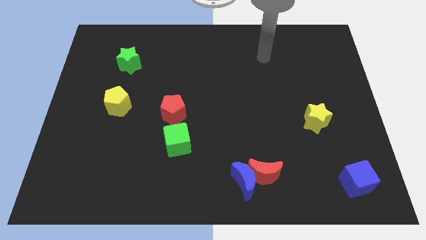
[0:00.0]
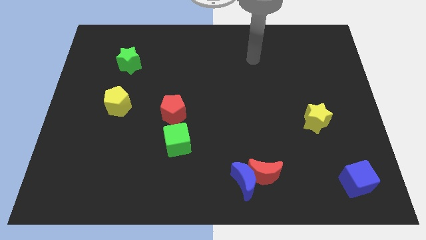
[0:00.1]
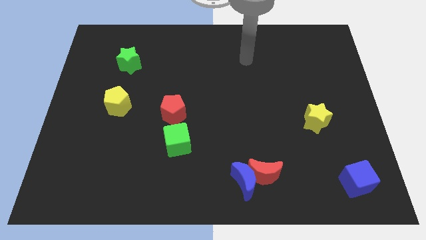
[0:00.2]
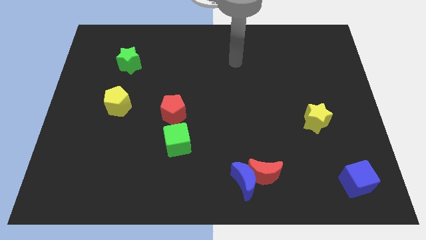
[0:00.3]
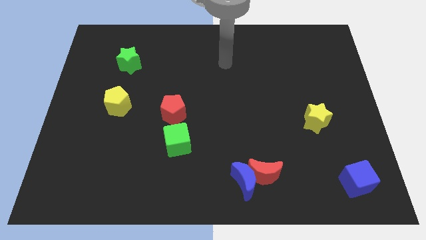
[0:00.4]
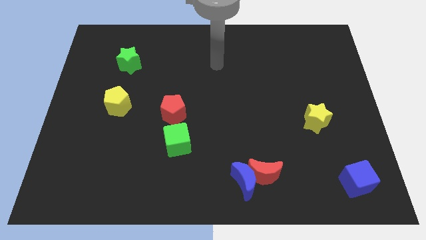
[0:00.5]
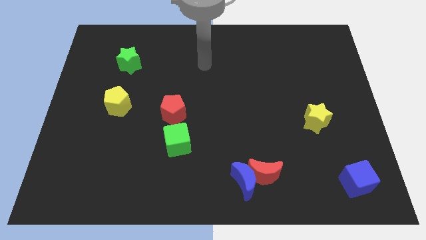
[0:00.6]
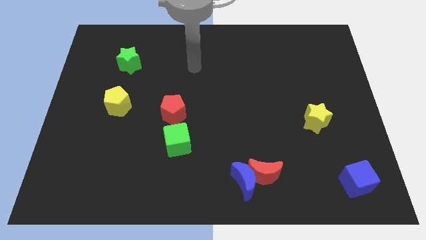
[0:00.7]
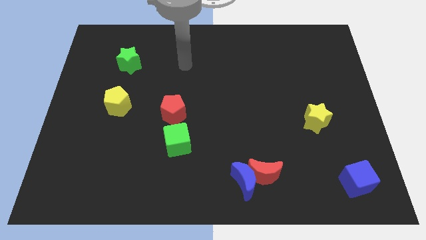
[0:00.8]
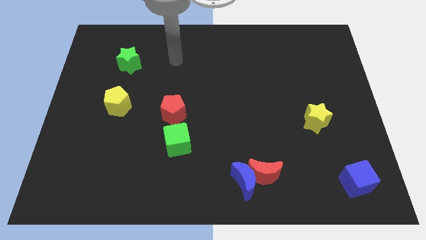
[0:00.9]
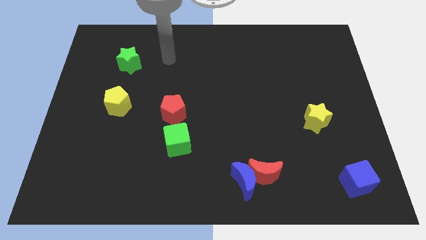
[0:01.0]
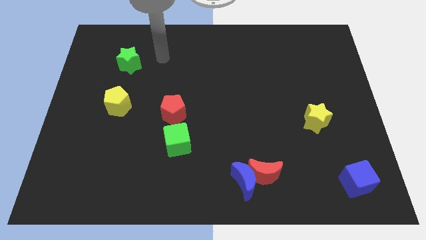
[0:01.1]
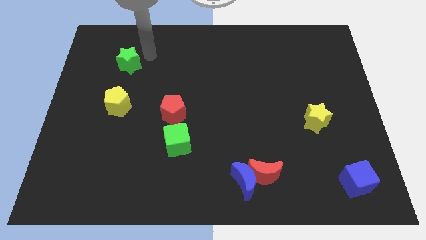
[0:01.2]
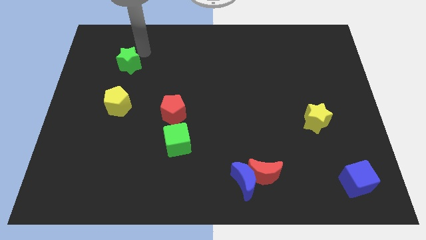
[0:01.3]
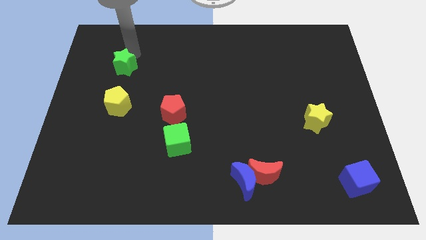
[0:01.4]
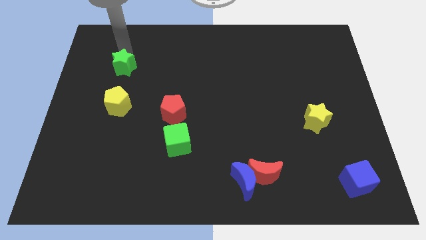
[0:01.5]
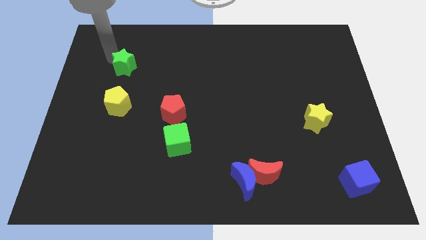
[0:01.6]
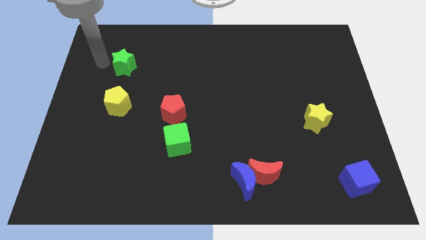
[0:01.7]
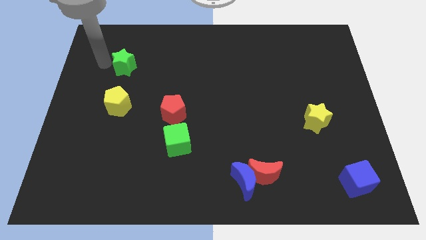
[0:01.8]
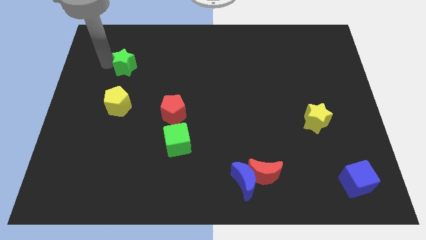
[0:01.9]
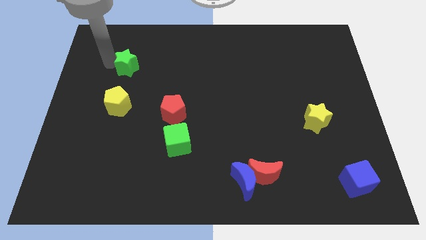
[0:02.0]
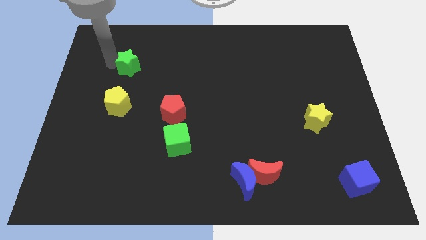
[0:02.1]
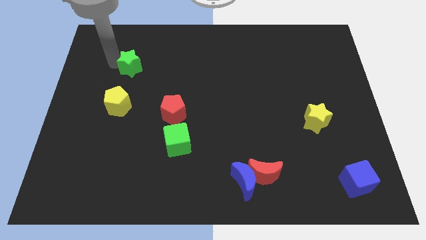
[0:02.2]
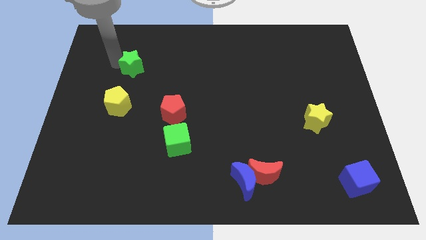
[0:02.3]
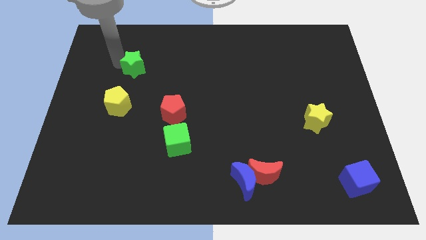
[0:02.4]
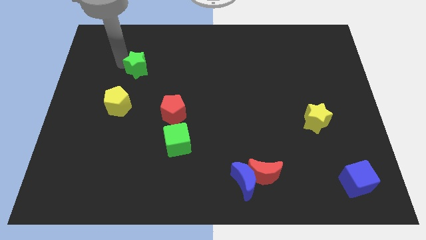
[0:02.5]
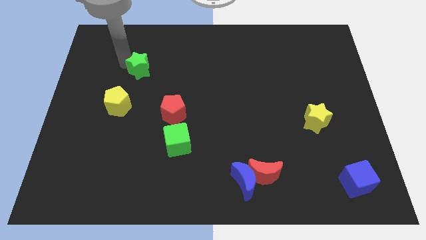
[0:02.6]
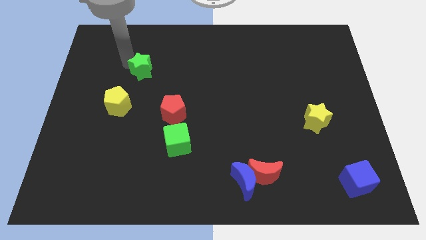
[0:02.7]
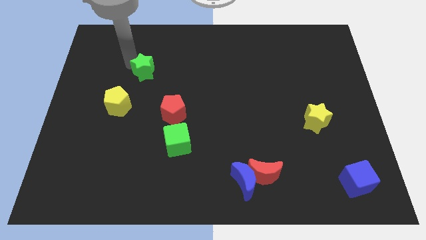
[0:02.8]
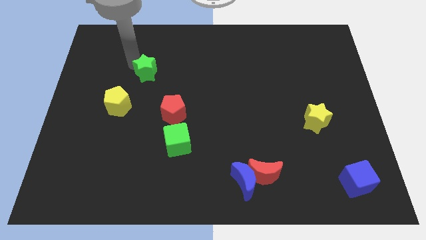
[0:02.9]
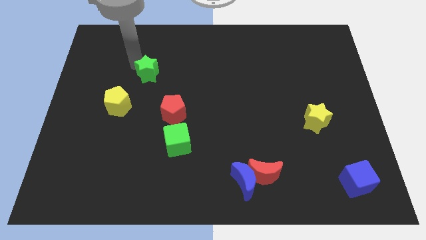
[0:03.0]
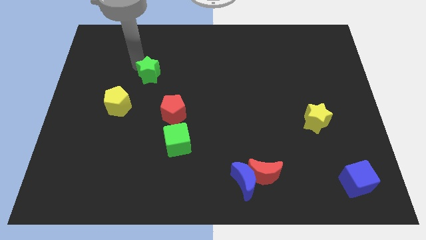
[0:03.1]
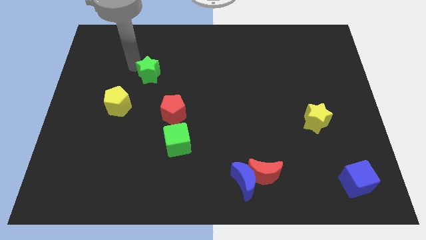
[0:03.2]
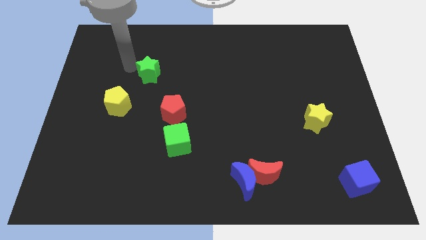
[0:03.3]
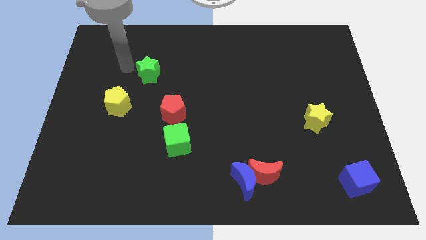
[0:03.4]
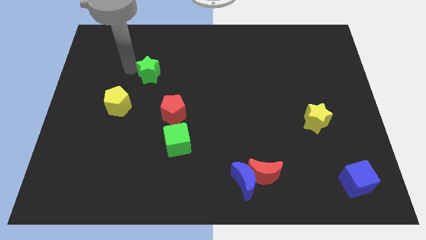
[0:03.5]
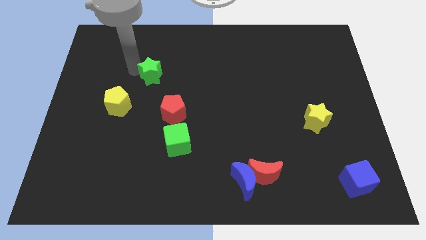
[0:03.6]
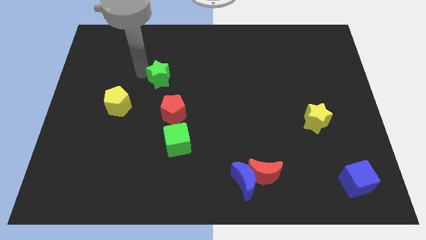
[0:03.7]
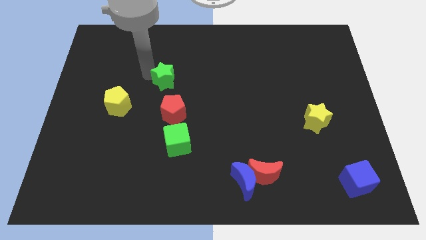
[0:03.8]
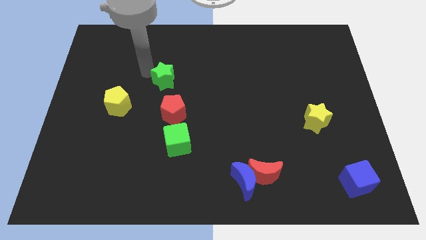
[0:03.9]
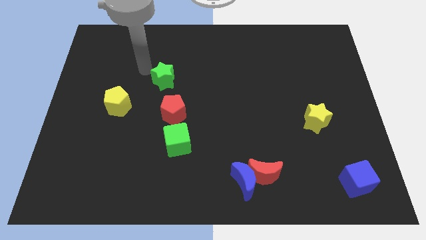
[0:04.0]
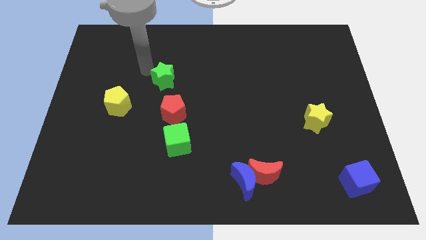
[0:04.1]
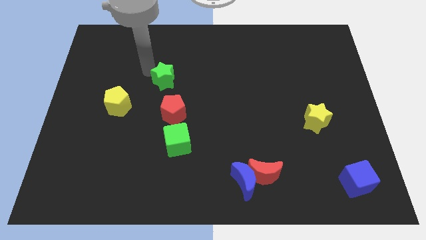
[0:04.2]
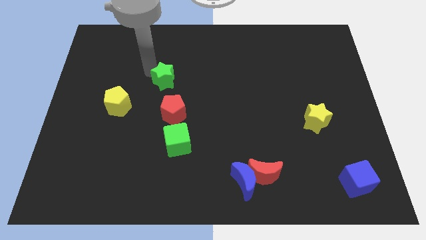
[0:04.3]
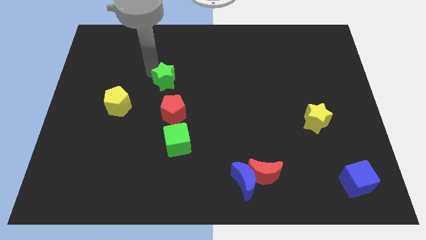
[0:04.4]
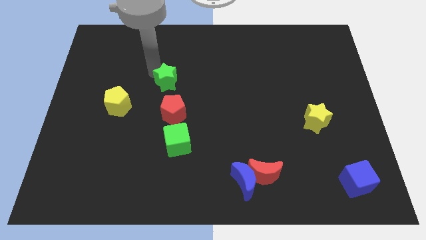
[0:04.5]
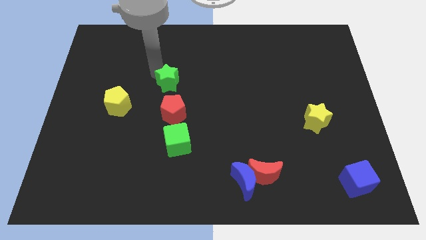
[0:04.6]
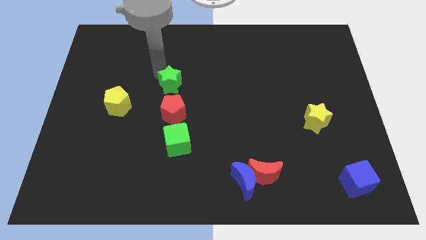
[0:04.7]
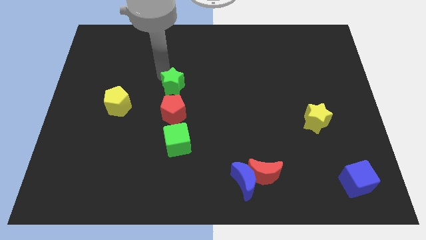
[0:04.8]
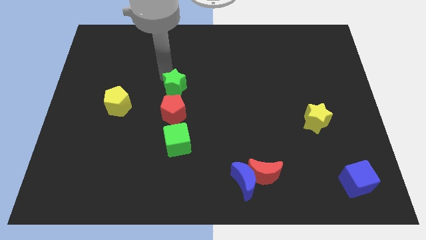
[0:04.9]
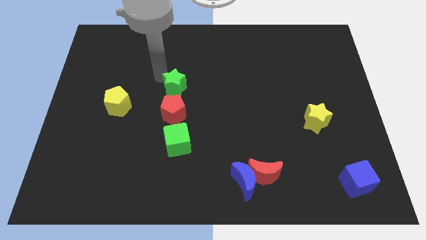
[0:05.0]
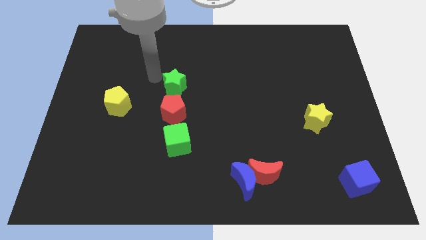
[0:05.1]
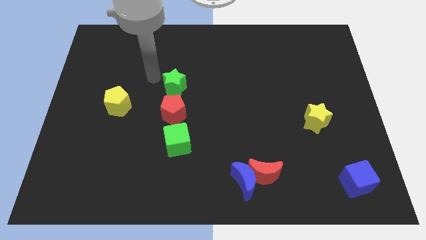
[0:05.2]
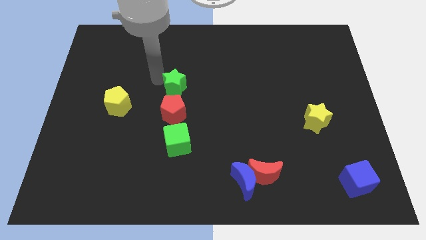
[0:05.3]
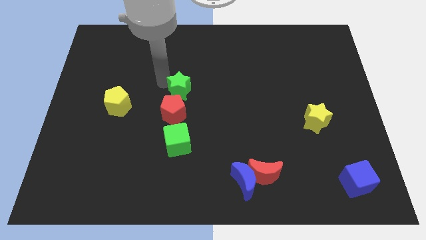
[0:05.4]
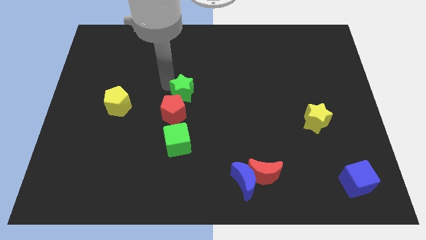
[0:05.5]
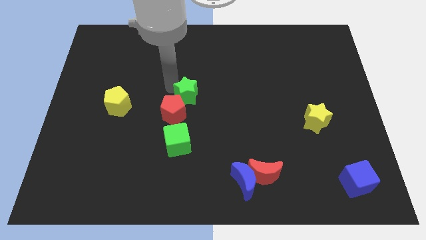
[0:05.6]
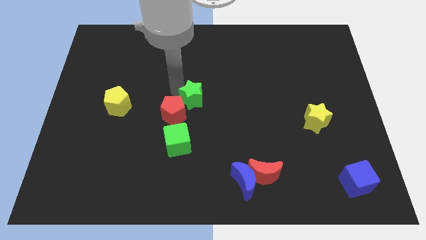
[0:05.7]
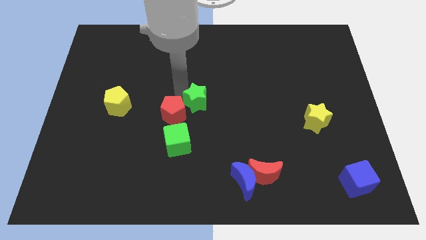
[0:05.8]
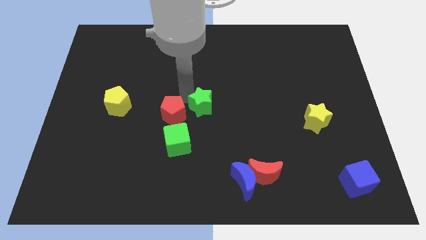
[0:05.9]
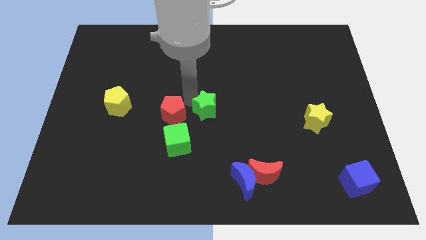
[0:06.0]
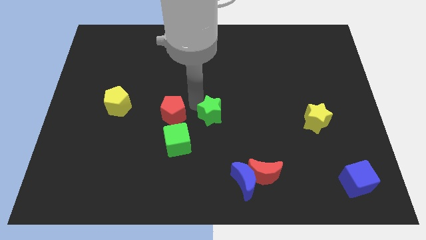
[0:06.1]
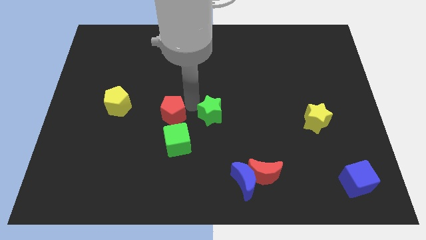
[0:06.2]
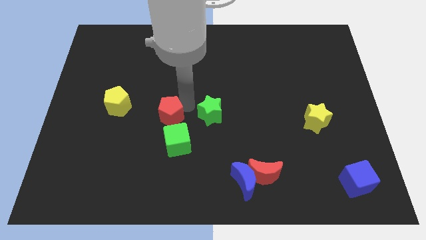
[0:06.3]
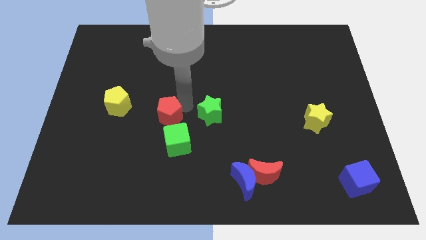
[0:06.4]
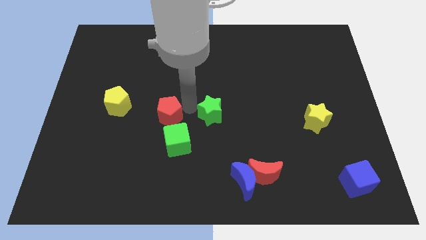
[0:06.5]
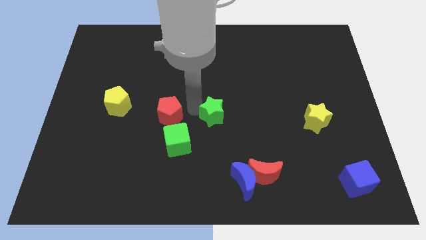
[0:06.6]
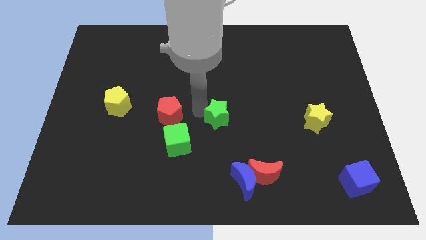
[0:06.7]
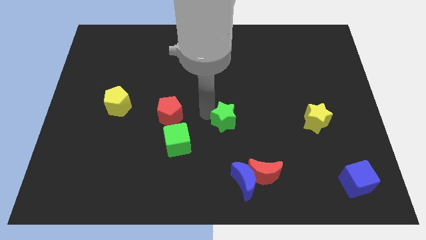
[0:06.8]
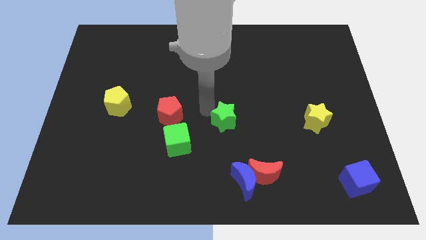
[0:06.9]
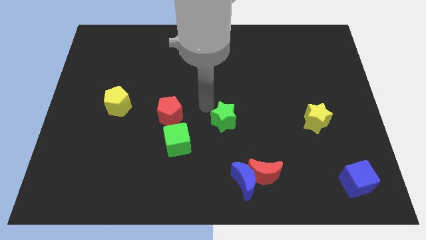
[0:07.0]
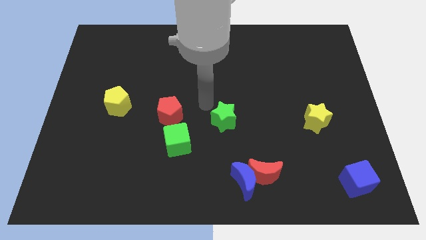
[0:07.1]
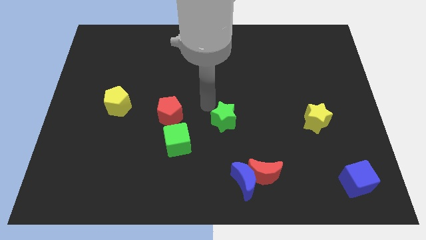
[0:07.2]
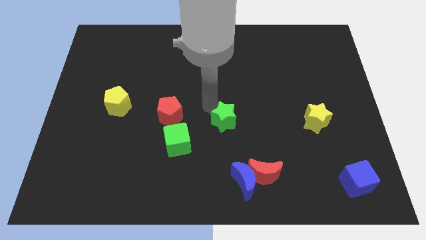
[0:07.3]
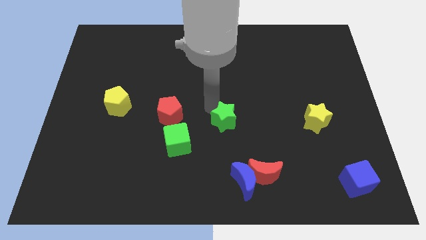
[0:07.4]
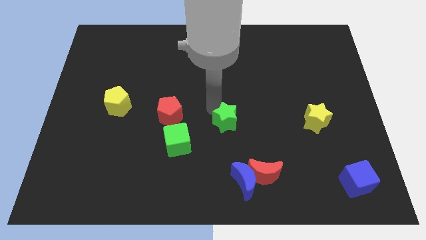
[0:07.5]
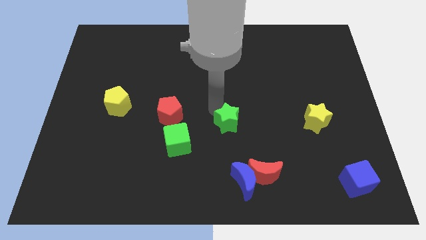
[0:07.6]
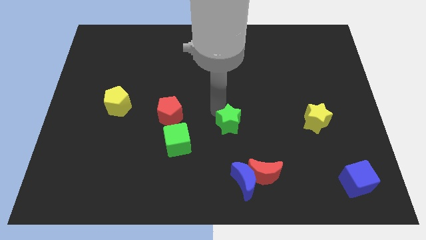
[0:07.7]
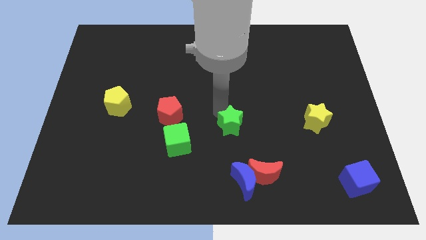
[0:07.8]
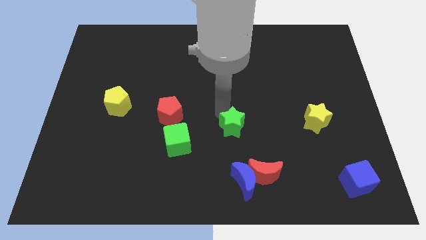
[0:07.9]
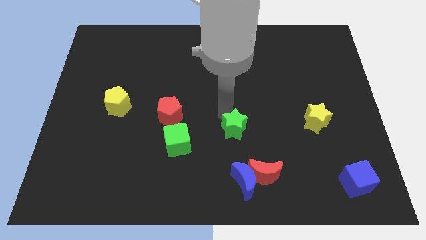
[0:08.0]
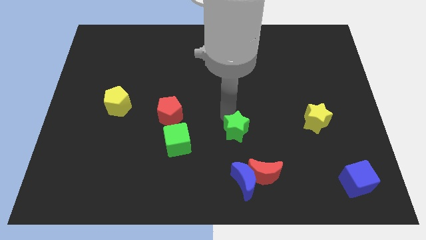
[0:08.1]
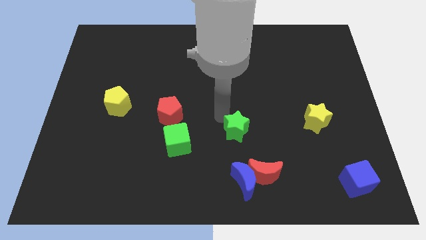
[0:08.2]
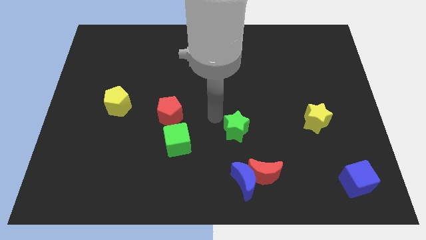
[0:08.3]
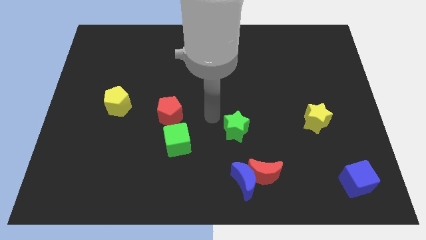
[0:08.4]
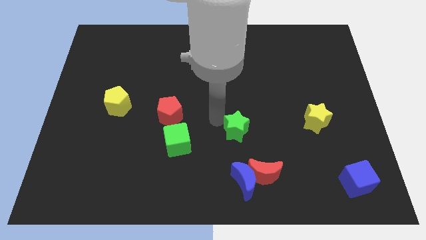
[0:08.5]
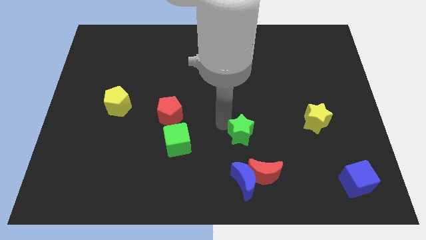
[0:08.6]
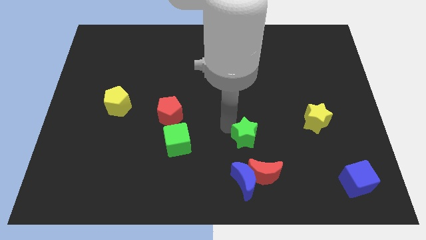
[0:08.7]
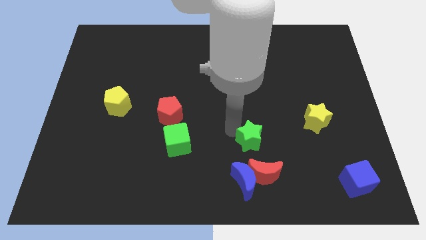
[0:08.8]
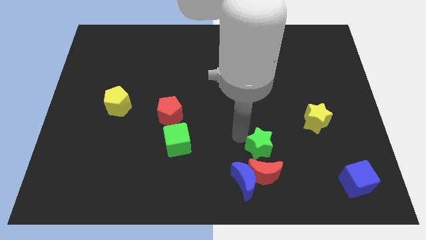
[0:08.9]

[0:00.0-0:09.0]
slide the green star diagonally up and to the right of the red moon
